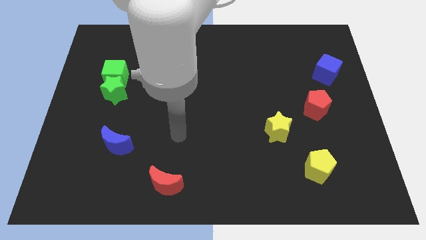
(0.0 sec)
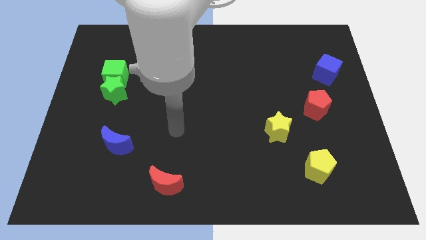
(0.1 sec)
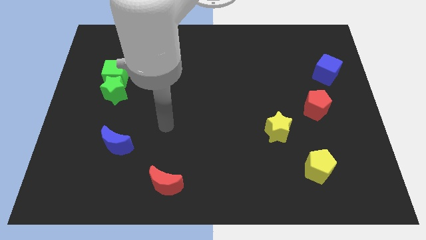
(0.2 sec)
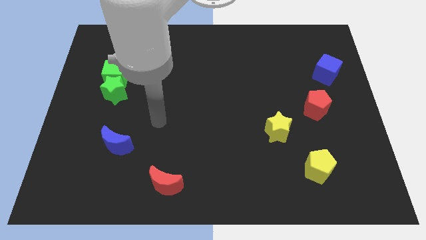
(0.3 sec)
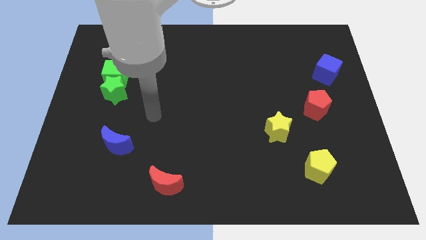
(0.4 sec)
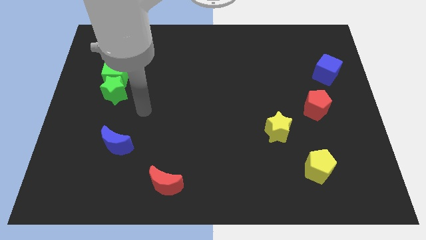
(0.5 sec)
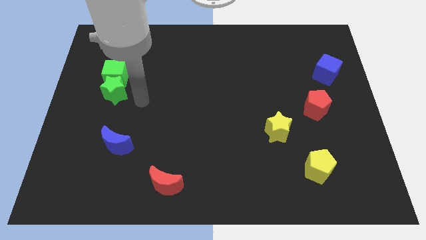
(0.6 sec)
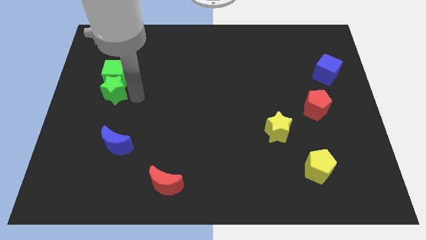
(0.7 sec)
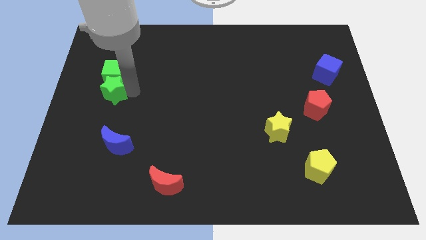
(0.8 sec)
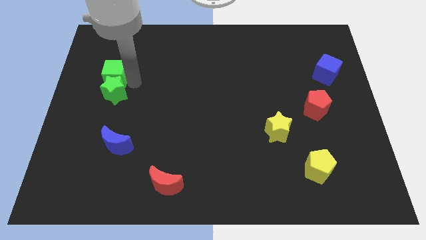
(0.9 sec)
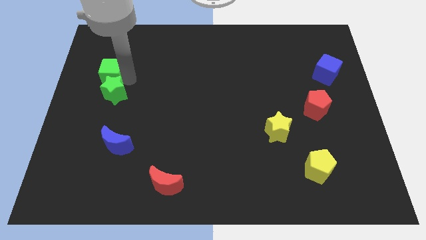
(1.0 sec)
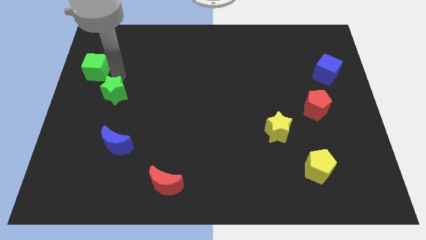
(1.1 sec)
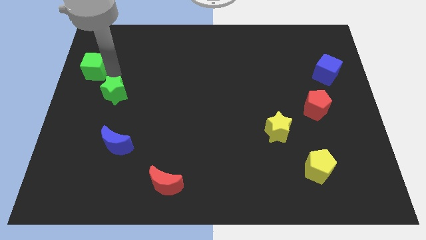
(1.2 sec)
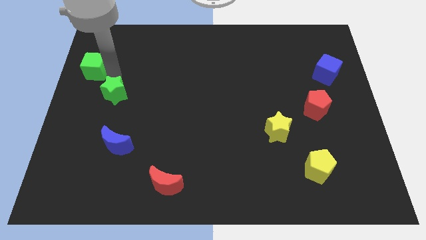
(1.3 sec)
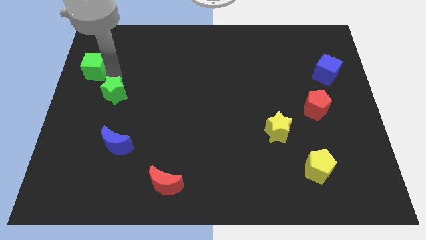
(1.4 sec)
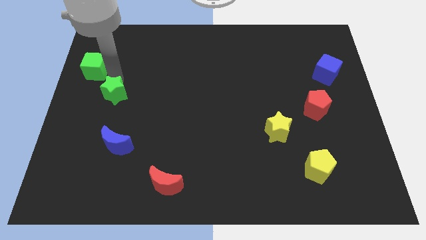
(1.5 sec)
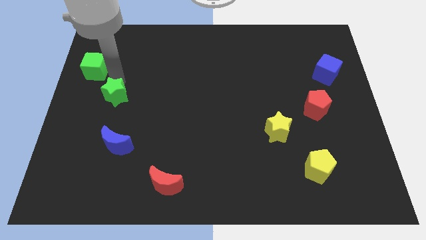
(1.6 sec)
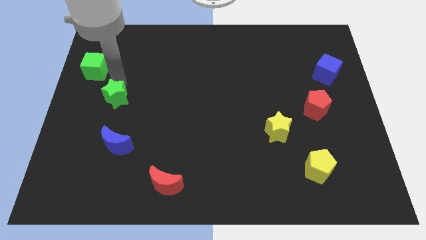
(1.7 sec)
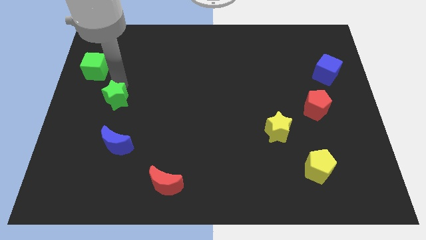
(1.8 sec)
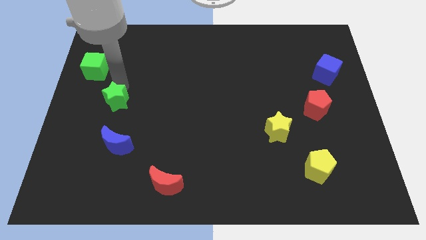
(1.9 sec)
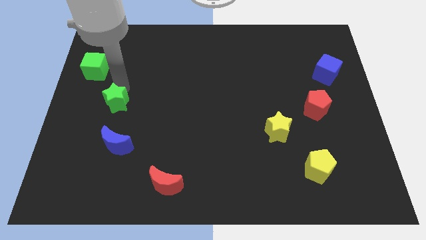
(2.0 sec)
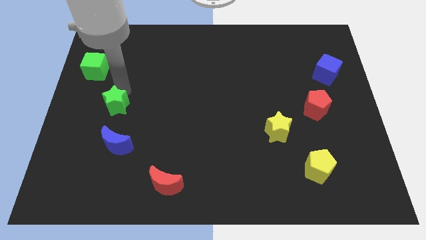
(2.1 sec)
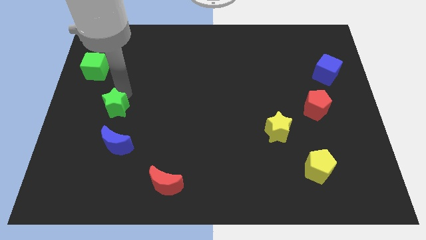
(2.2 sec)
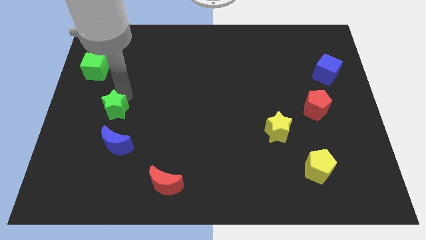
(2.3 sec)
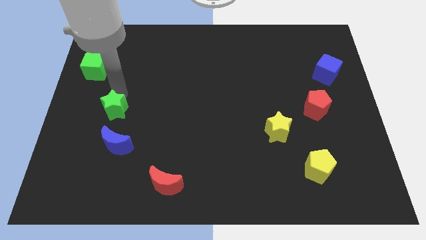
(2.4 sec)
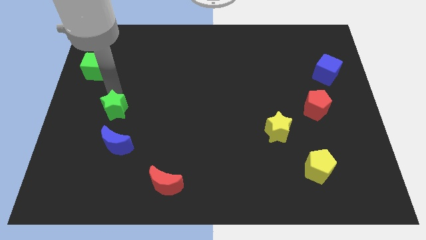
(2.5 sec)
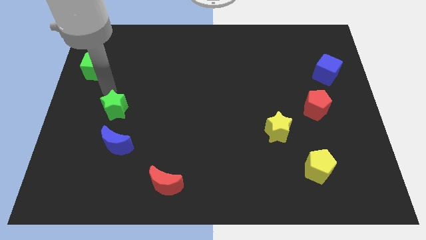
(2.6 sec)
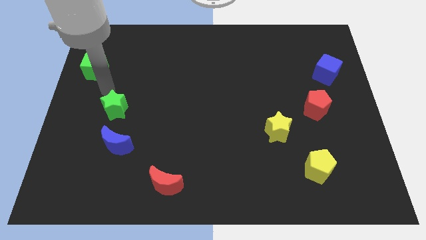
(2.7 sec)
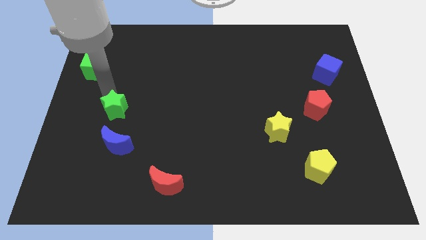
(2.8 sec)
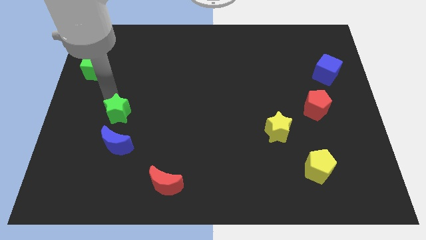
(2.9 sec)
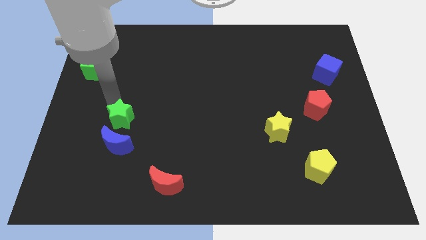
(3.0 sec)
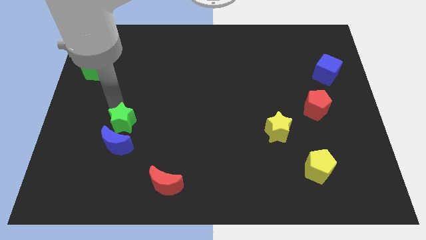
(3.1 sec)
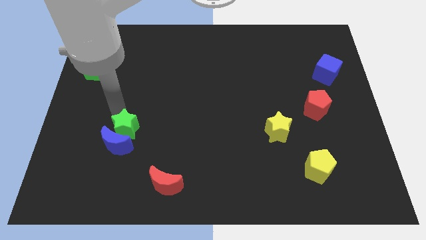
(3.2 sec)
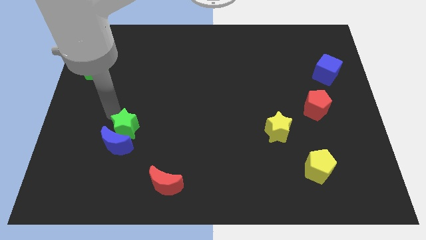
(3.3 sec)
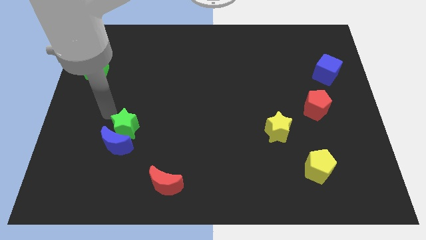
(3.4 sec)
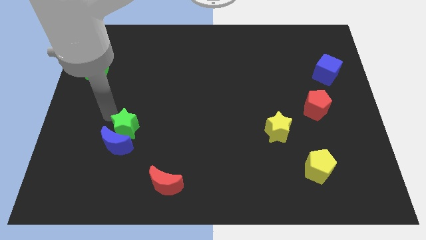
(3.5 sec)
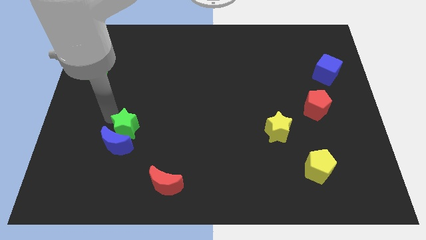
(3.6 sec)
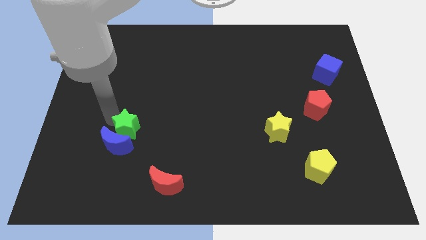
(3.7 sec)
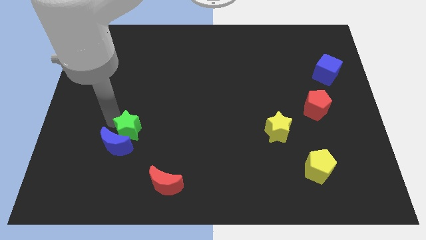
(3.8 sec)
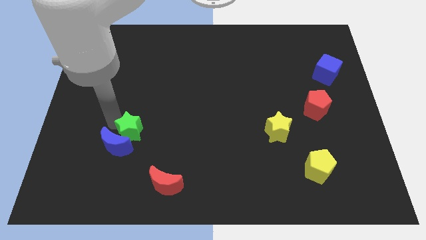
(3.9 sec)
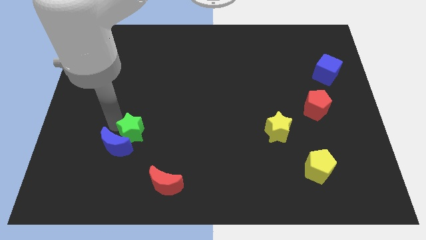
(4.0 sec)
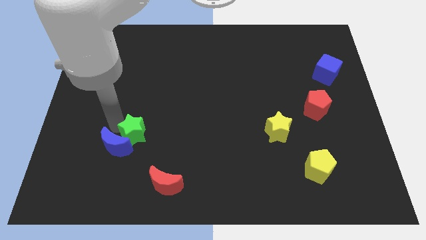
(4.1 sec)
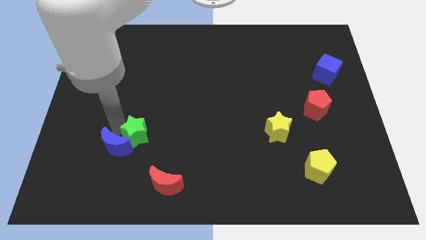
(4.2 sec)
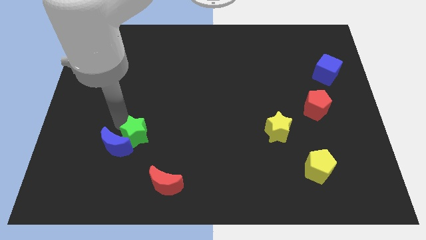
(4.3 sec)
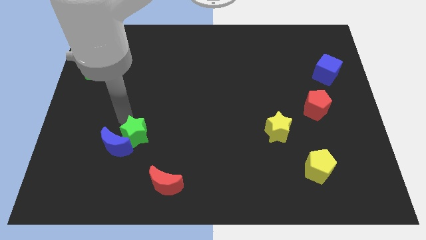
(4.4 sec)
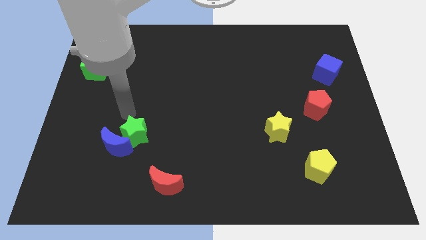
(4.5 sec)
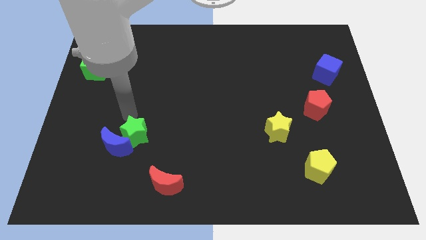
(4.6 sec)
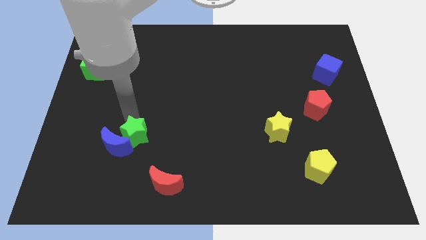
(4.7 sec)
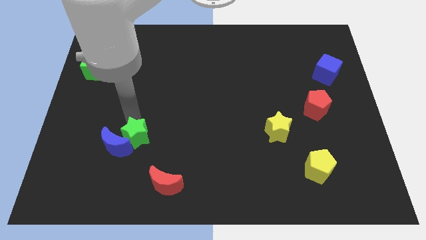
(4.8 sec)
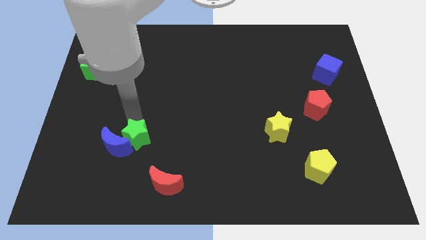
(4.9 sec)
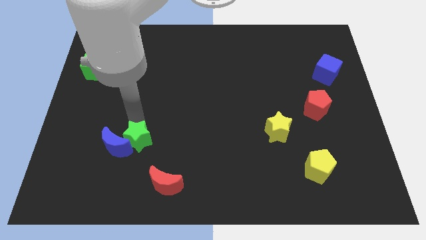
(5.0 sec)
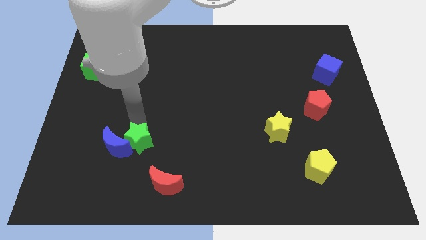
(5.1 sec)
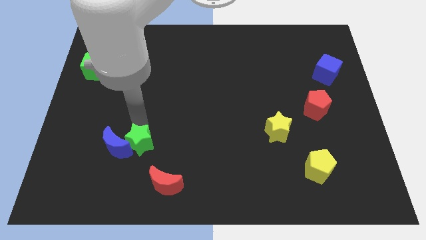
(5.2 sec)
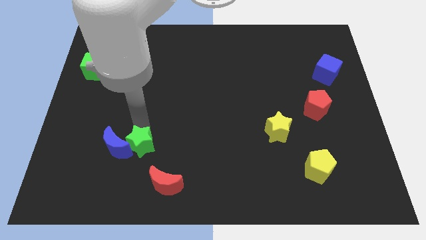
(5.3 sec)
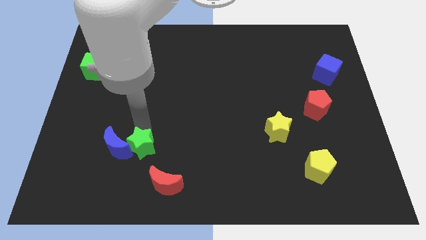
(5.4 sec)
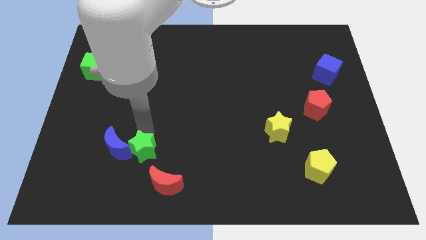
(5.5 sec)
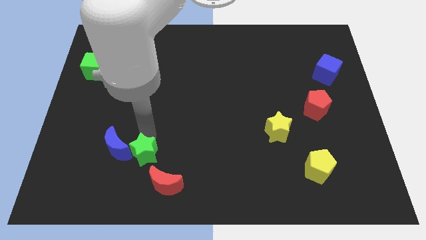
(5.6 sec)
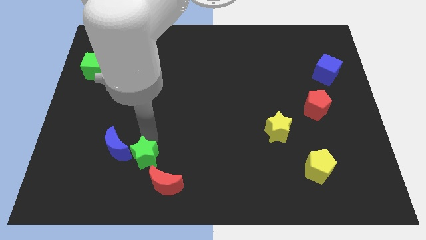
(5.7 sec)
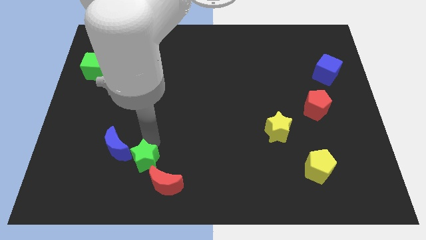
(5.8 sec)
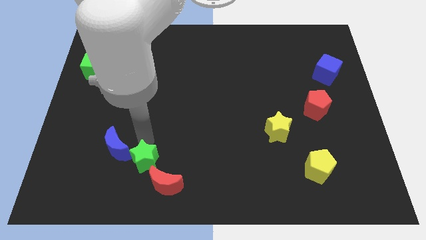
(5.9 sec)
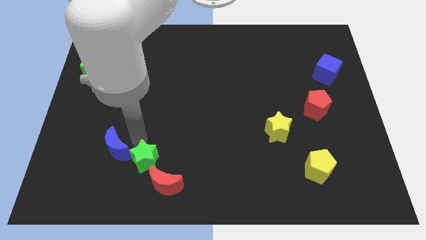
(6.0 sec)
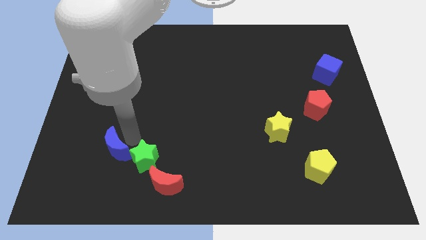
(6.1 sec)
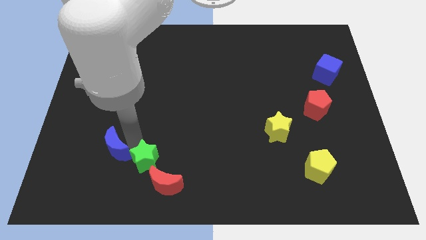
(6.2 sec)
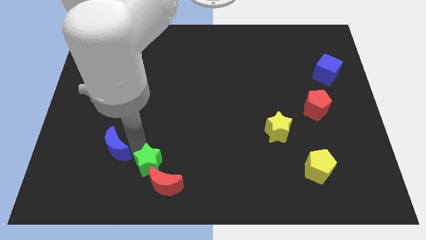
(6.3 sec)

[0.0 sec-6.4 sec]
put the green star towards the red moon

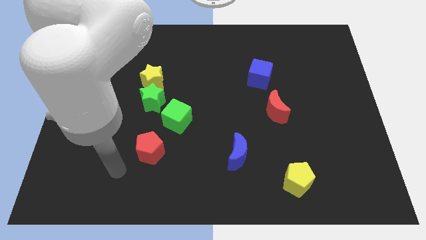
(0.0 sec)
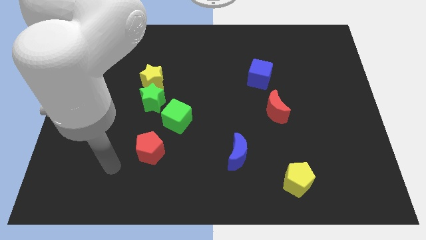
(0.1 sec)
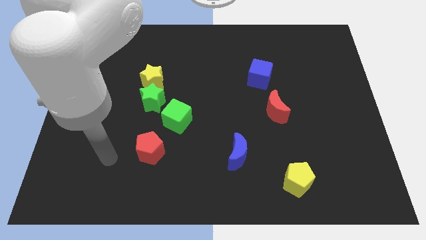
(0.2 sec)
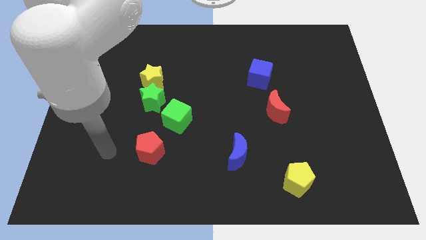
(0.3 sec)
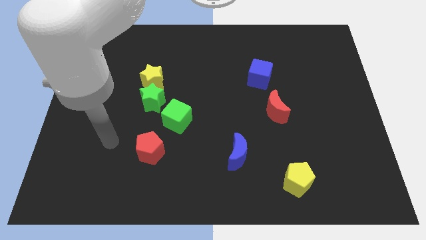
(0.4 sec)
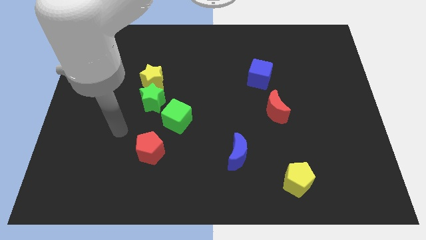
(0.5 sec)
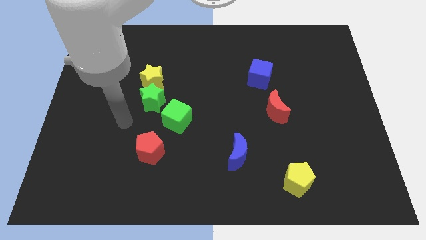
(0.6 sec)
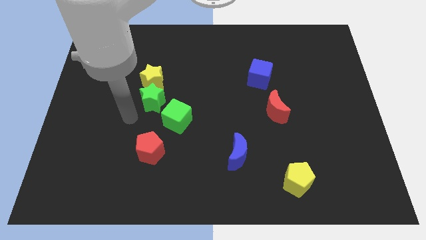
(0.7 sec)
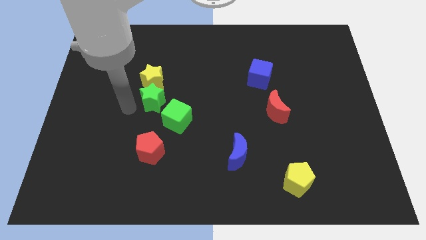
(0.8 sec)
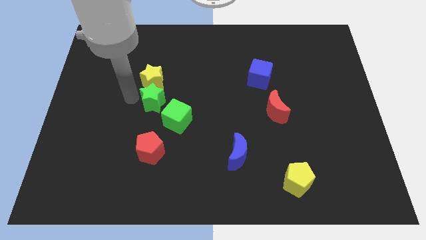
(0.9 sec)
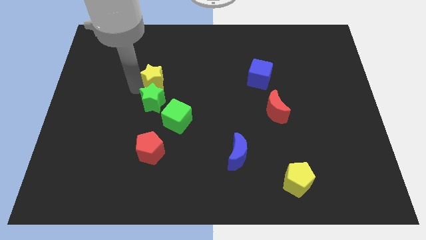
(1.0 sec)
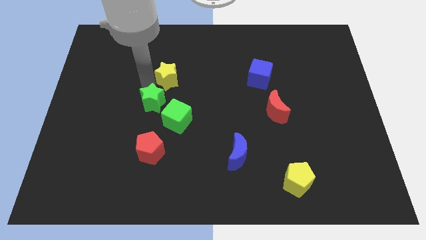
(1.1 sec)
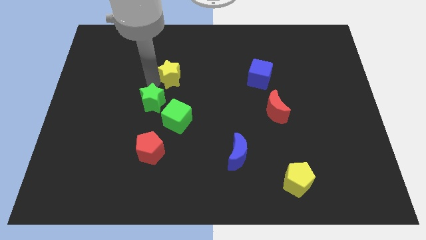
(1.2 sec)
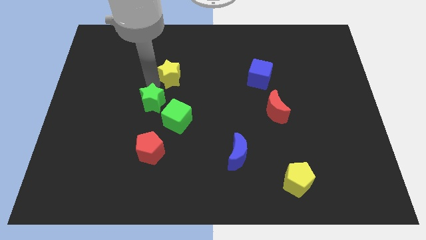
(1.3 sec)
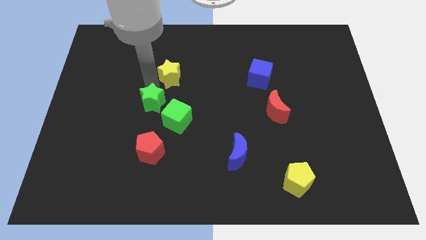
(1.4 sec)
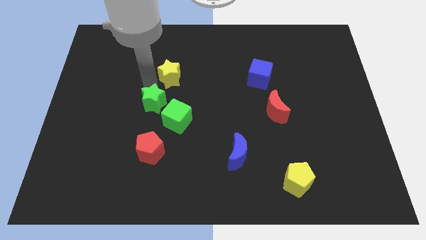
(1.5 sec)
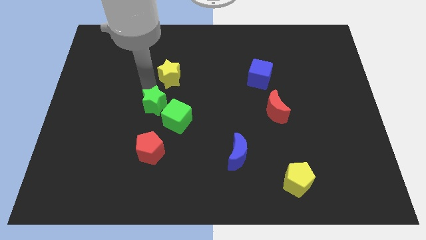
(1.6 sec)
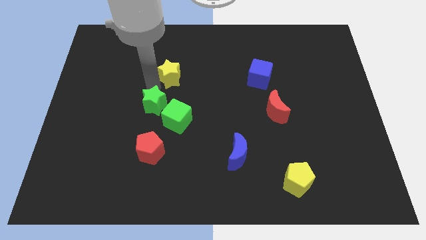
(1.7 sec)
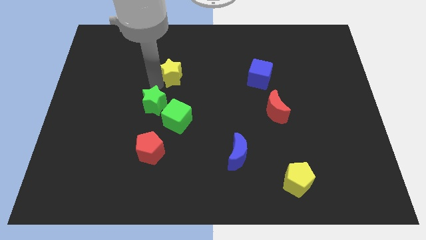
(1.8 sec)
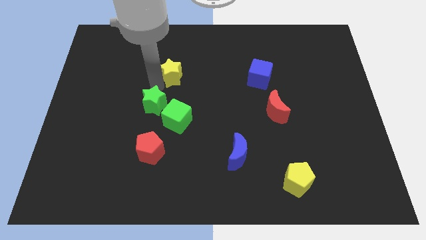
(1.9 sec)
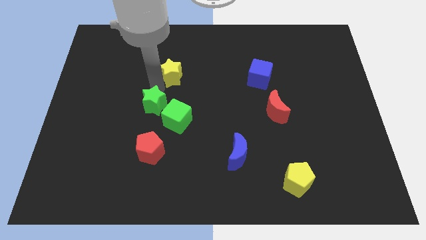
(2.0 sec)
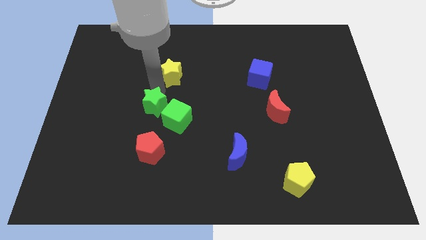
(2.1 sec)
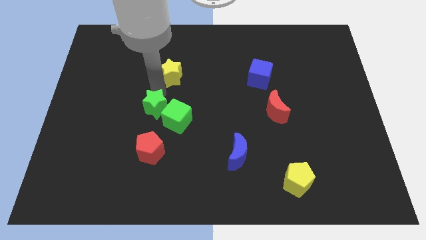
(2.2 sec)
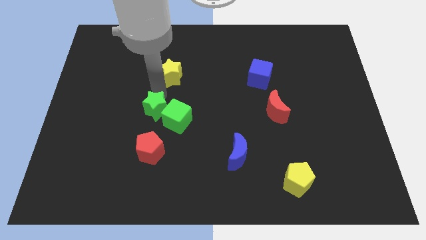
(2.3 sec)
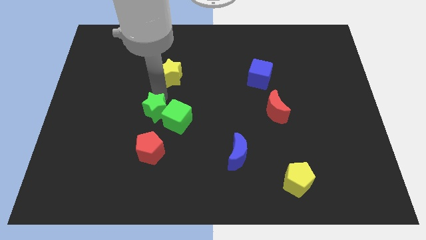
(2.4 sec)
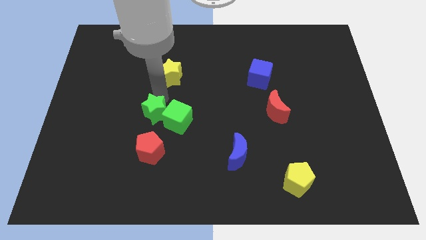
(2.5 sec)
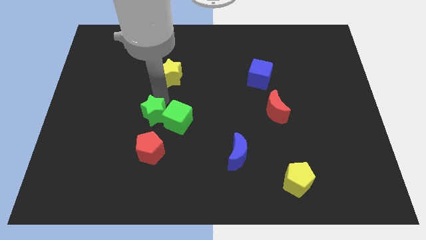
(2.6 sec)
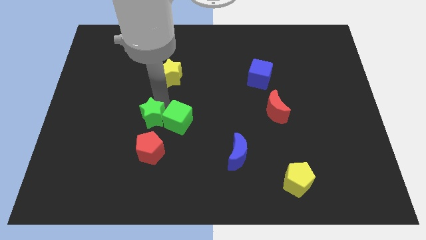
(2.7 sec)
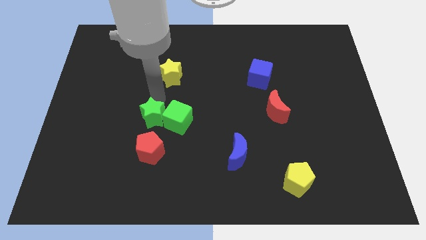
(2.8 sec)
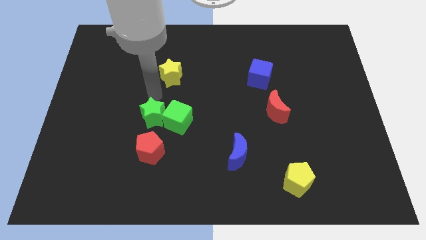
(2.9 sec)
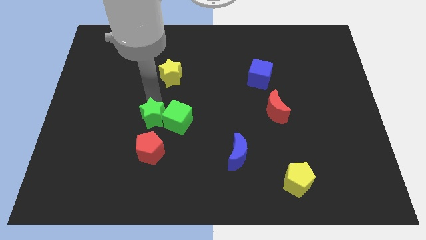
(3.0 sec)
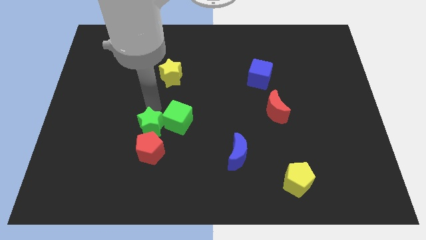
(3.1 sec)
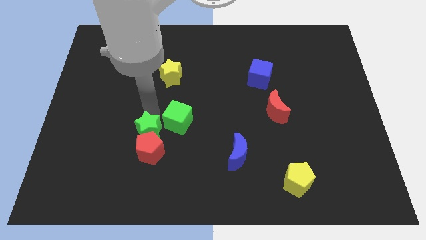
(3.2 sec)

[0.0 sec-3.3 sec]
slide the green star next to the red pentagon
